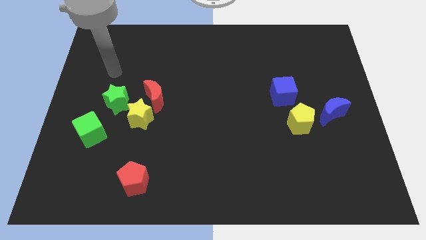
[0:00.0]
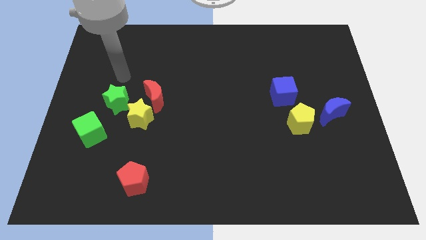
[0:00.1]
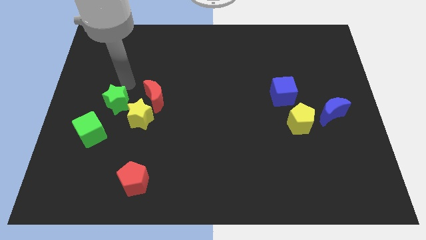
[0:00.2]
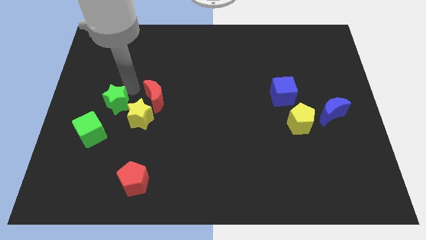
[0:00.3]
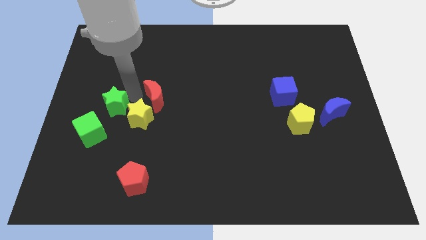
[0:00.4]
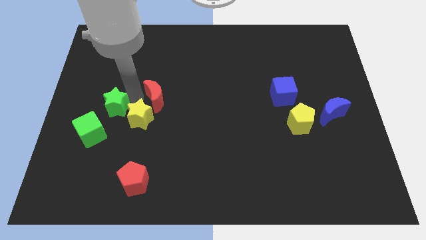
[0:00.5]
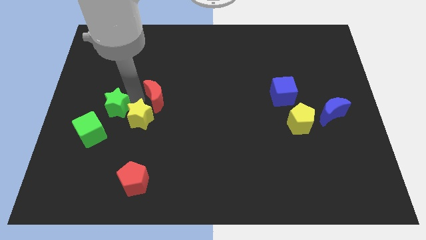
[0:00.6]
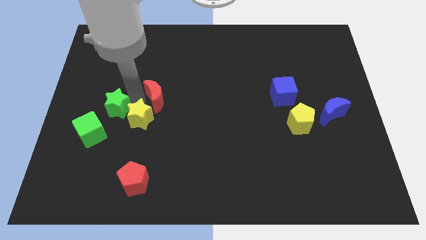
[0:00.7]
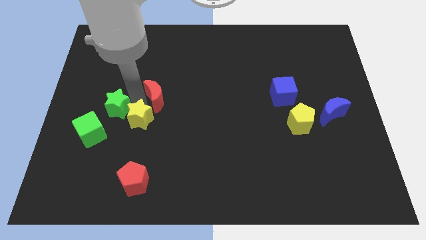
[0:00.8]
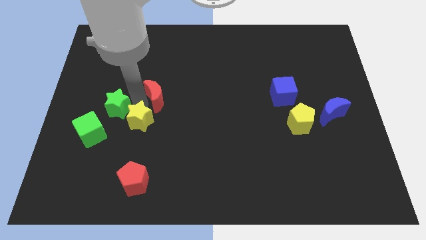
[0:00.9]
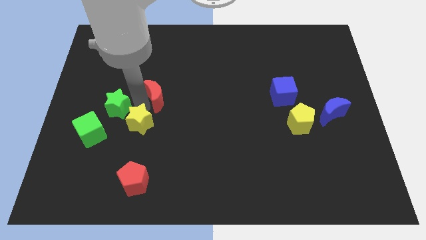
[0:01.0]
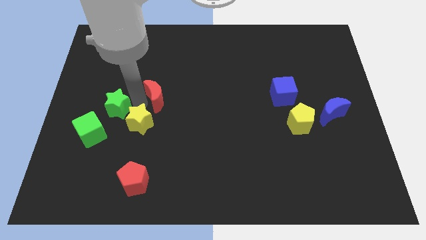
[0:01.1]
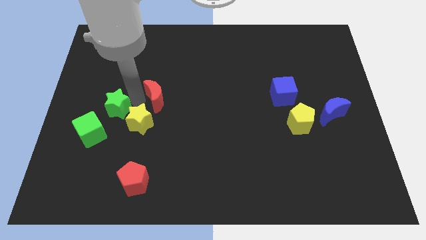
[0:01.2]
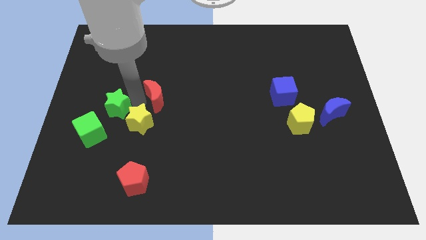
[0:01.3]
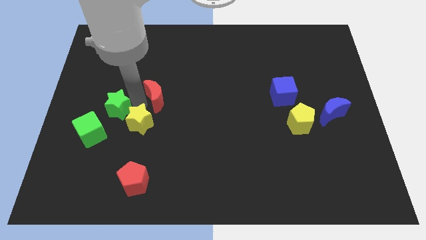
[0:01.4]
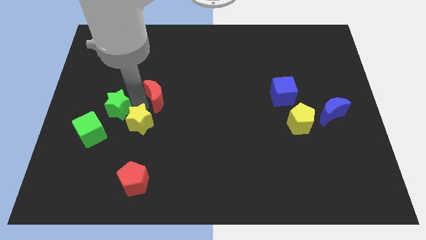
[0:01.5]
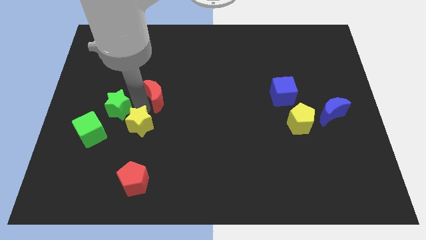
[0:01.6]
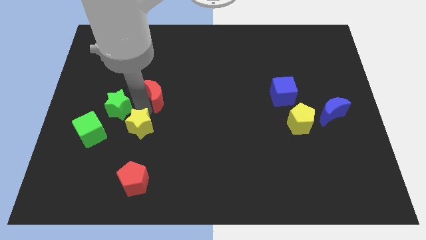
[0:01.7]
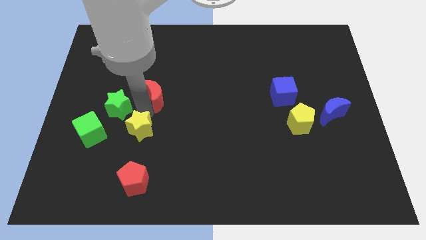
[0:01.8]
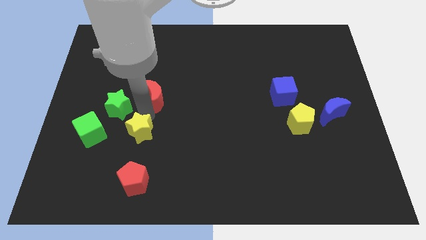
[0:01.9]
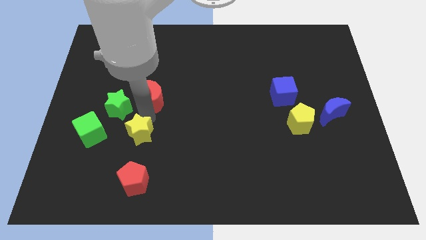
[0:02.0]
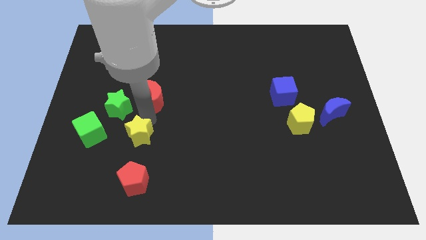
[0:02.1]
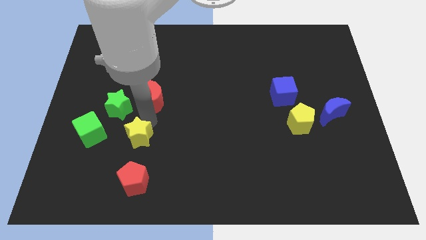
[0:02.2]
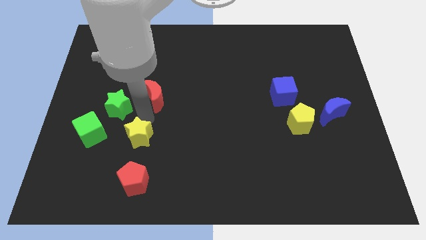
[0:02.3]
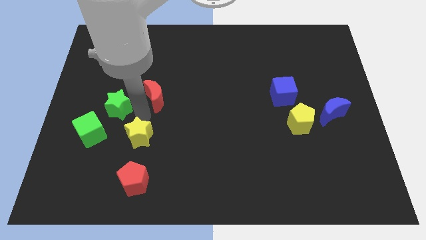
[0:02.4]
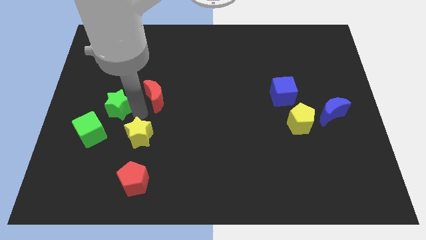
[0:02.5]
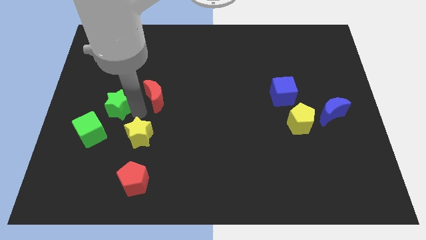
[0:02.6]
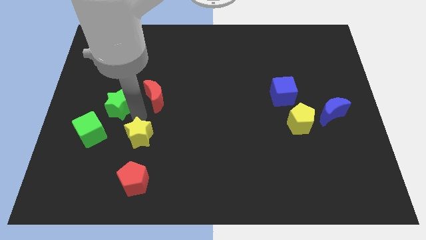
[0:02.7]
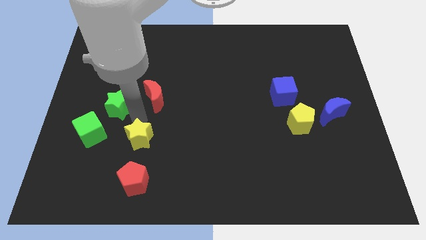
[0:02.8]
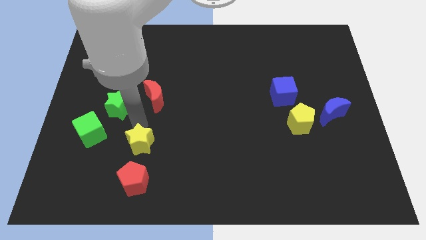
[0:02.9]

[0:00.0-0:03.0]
separate the yellow star from the red moon and green star

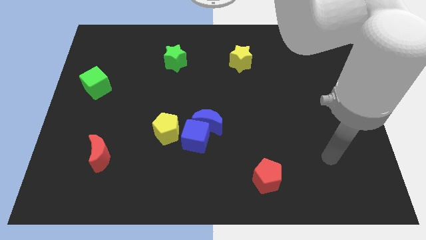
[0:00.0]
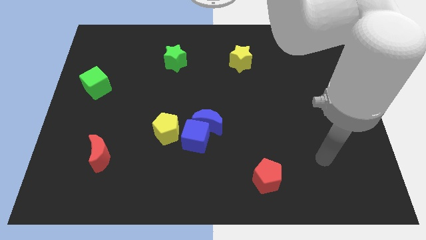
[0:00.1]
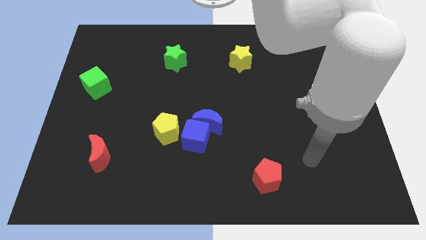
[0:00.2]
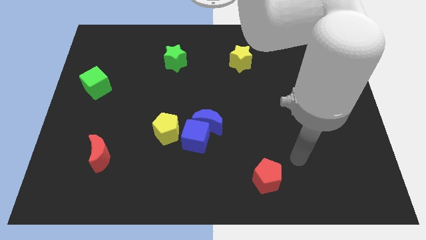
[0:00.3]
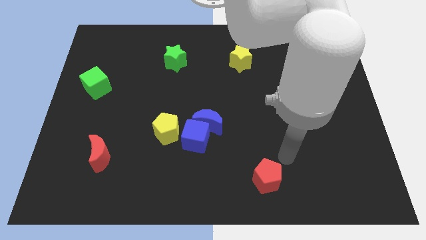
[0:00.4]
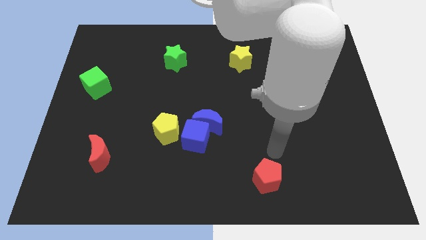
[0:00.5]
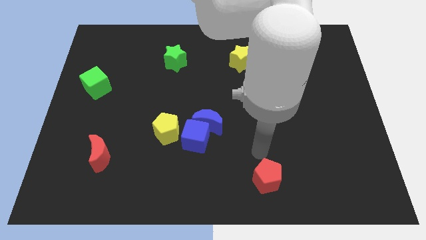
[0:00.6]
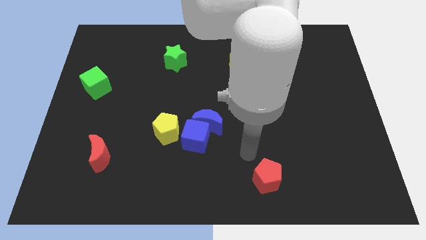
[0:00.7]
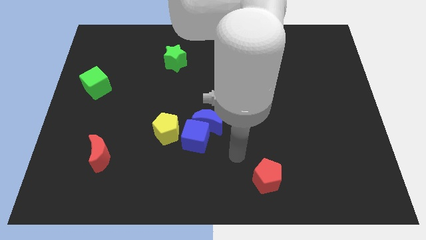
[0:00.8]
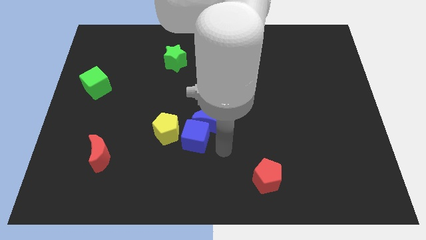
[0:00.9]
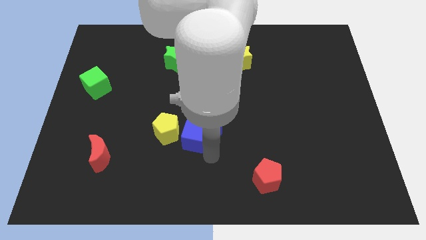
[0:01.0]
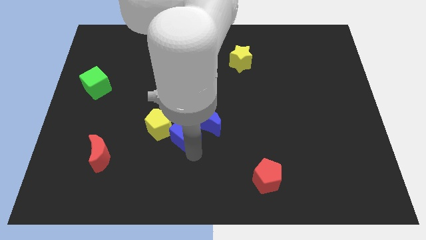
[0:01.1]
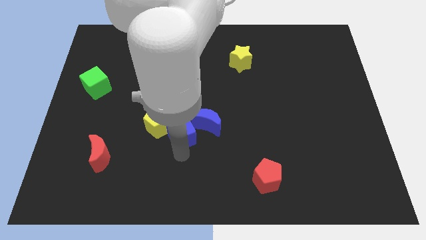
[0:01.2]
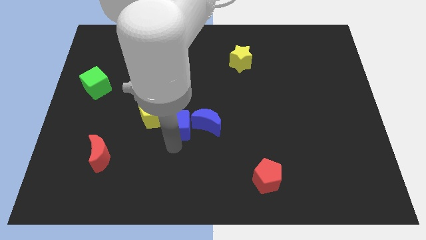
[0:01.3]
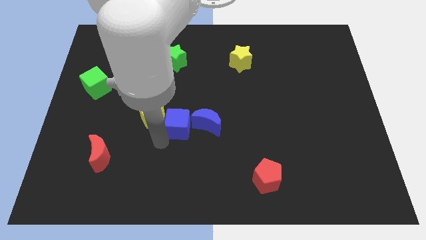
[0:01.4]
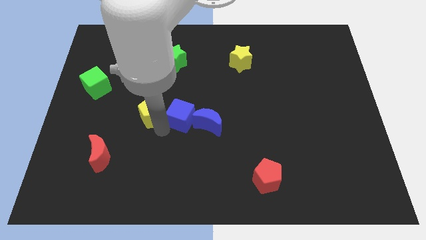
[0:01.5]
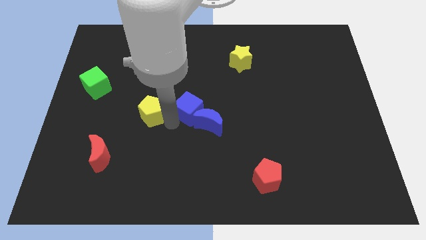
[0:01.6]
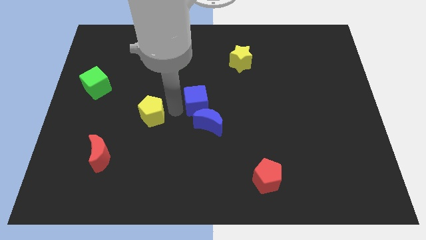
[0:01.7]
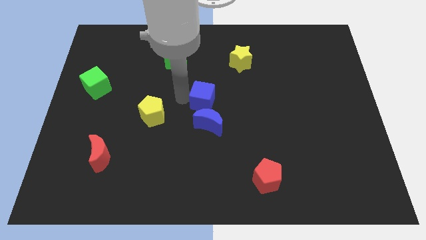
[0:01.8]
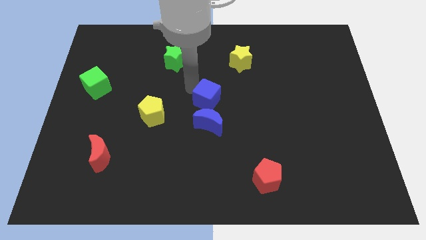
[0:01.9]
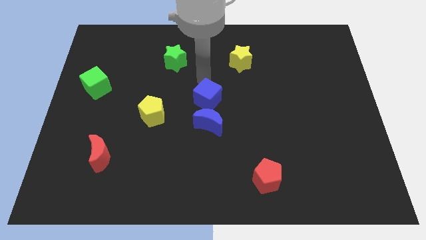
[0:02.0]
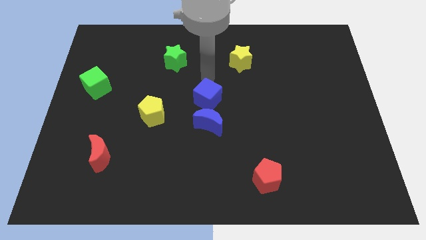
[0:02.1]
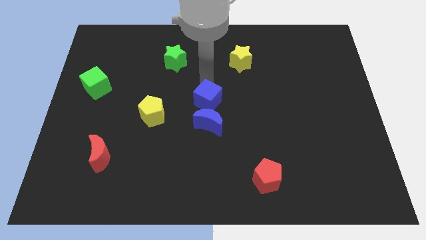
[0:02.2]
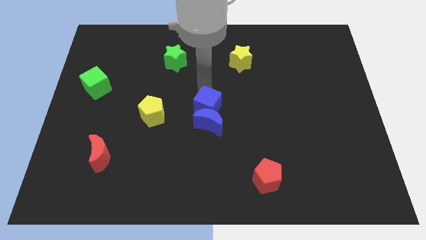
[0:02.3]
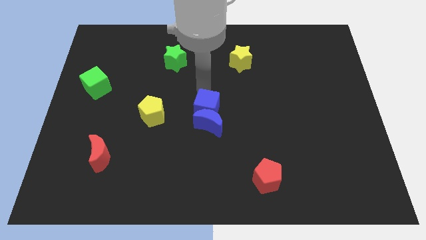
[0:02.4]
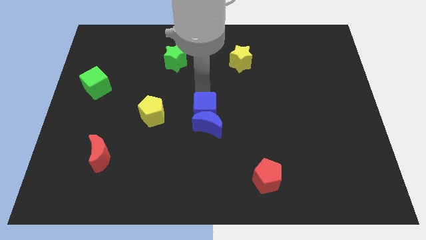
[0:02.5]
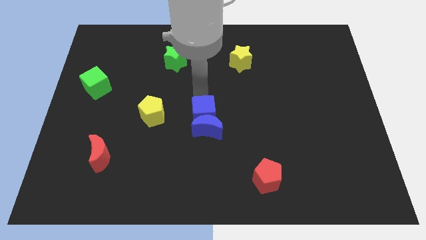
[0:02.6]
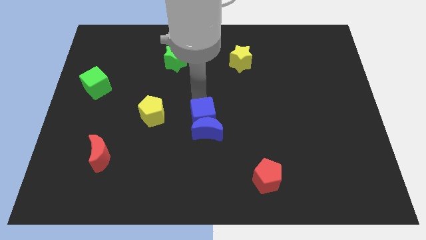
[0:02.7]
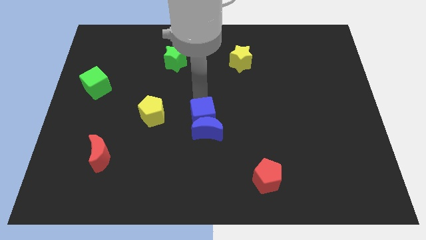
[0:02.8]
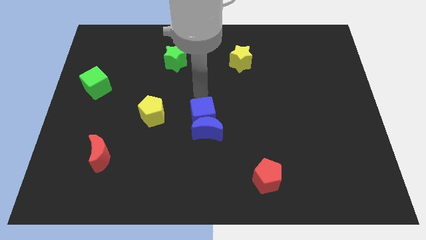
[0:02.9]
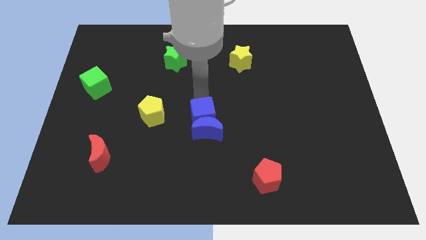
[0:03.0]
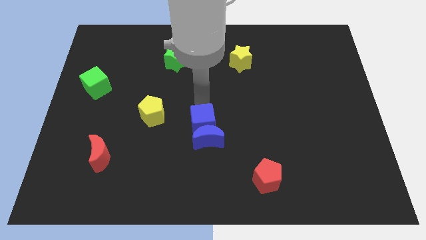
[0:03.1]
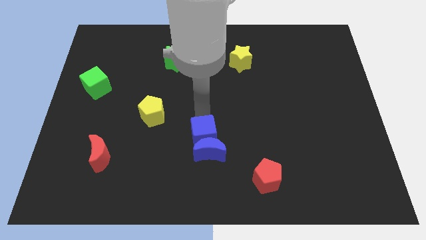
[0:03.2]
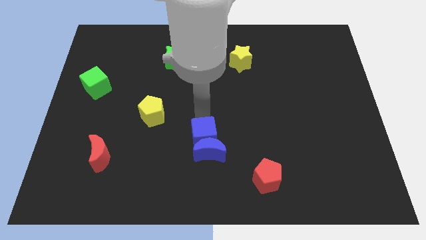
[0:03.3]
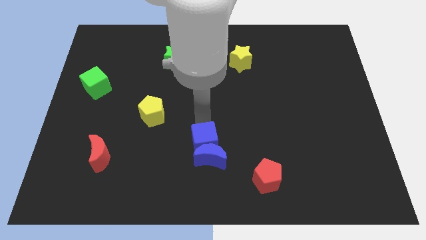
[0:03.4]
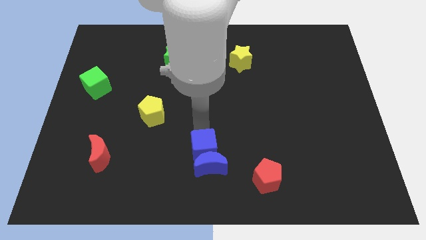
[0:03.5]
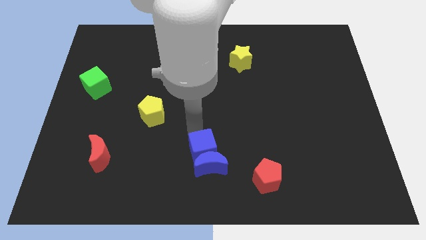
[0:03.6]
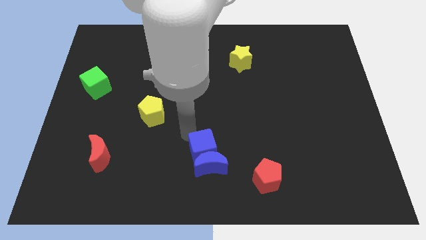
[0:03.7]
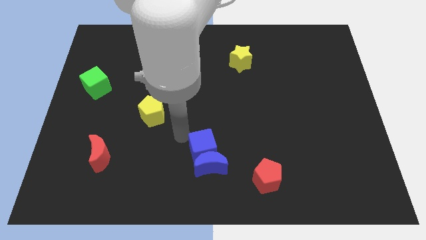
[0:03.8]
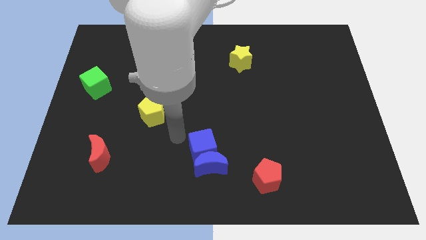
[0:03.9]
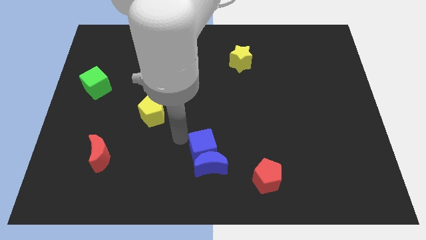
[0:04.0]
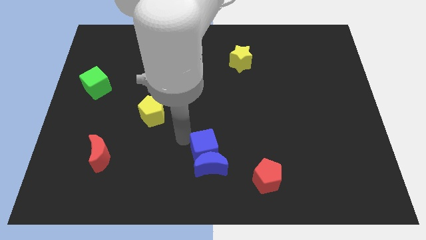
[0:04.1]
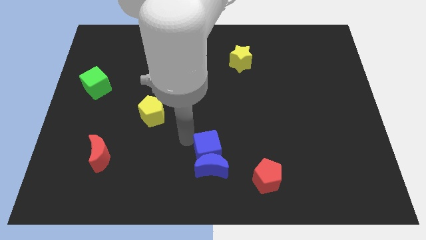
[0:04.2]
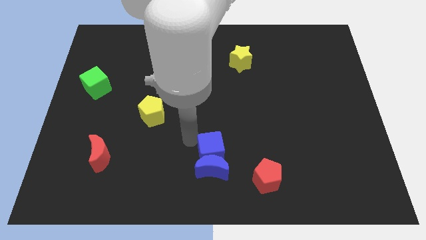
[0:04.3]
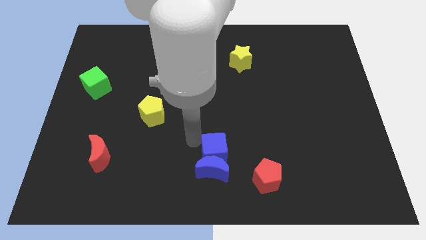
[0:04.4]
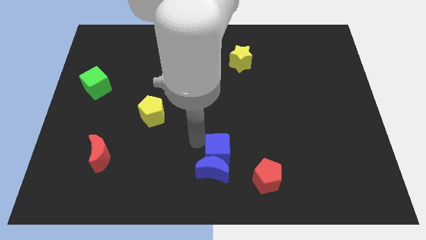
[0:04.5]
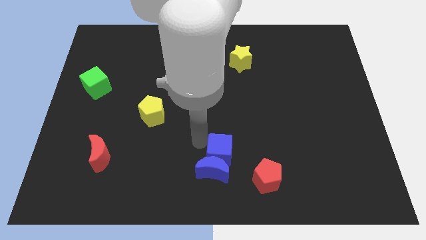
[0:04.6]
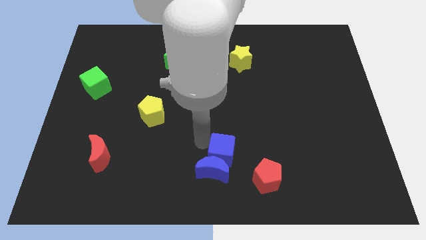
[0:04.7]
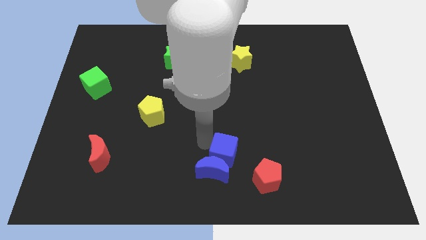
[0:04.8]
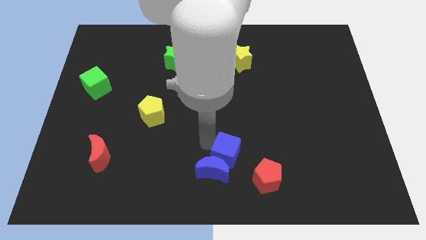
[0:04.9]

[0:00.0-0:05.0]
separate the blue cube from the blue moon and yellow pentagon

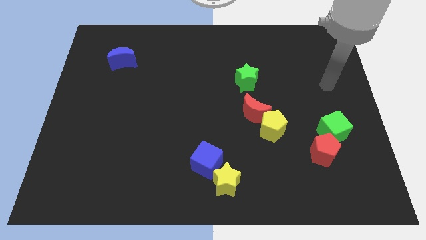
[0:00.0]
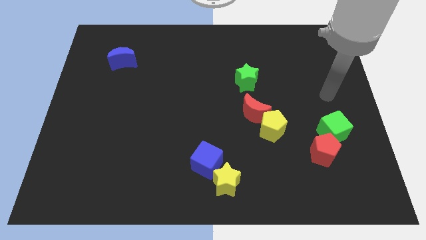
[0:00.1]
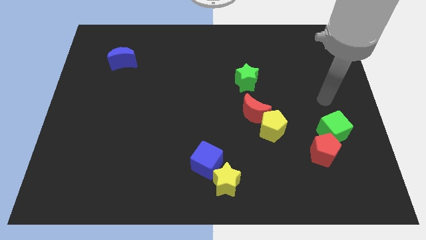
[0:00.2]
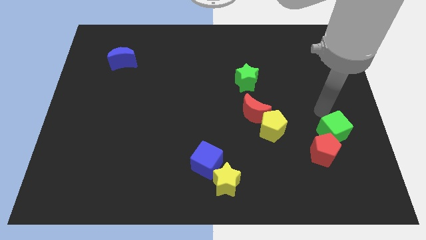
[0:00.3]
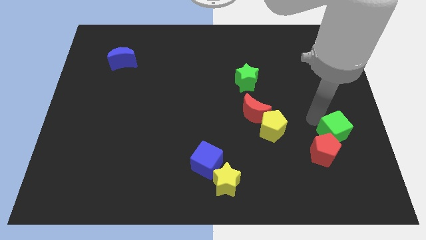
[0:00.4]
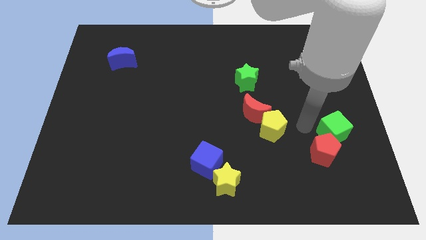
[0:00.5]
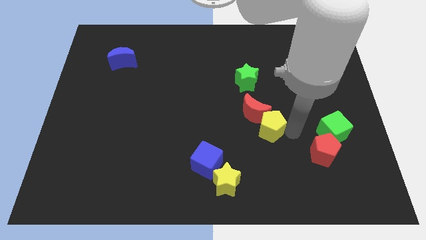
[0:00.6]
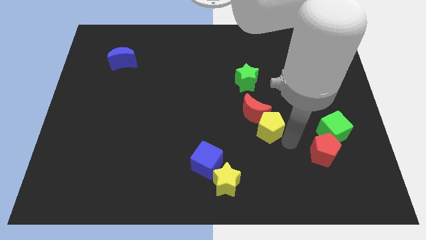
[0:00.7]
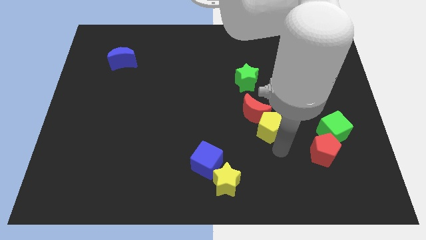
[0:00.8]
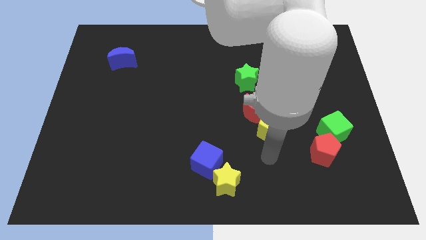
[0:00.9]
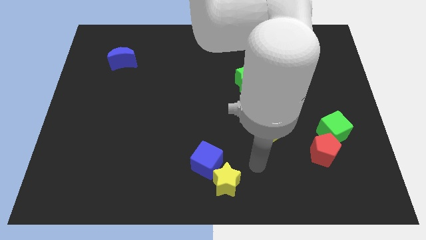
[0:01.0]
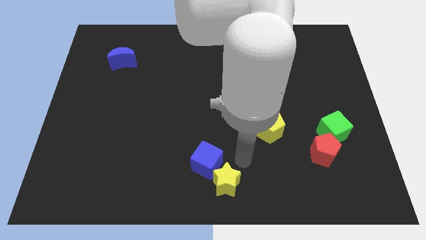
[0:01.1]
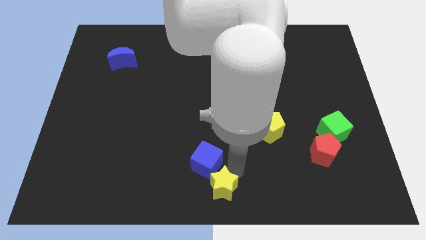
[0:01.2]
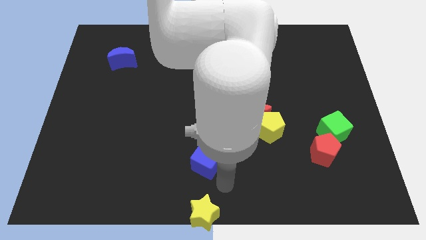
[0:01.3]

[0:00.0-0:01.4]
separate the blue cube from the yellow star
